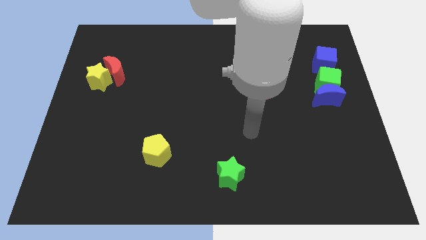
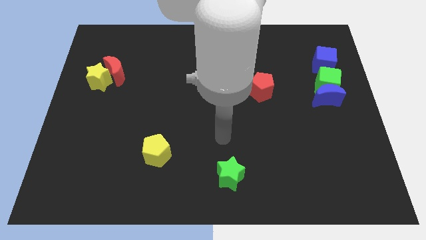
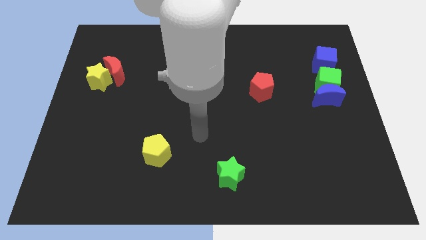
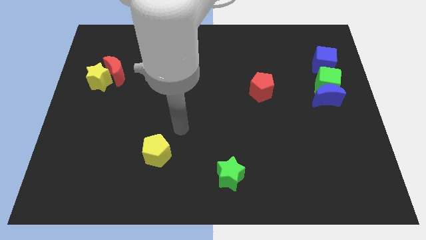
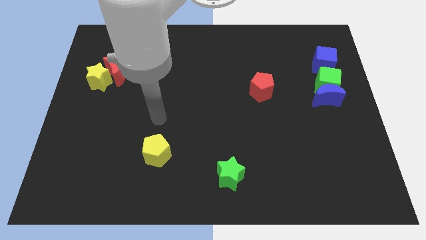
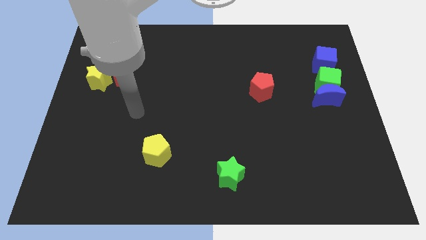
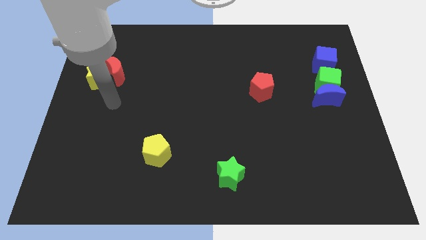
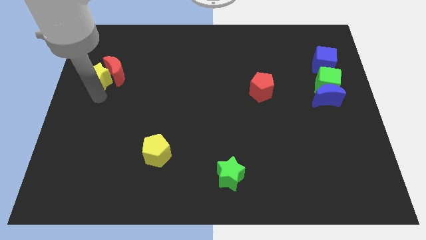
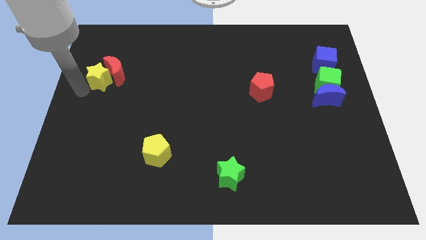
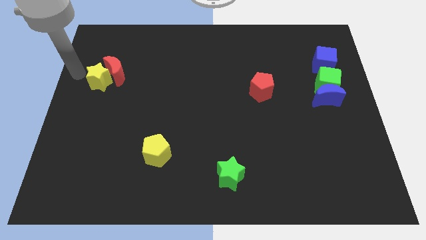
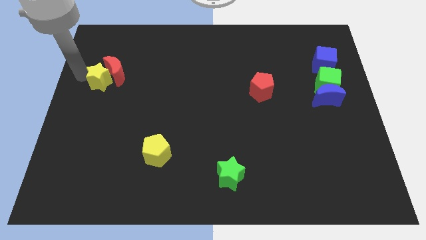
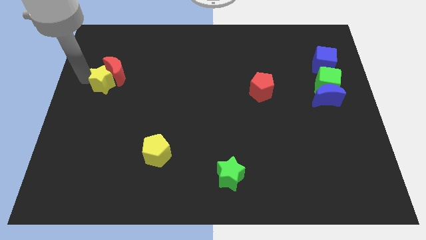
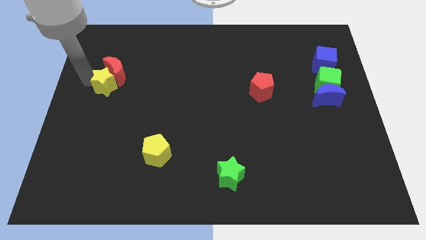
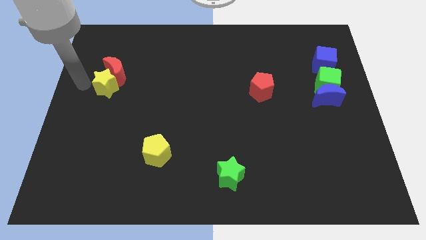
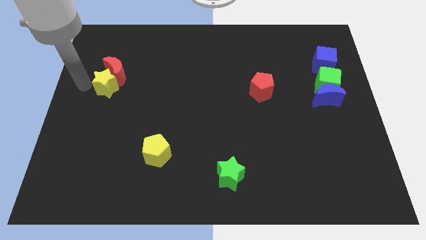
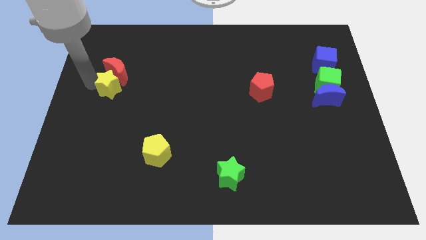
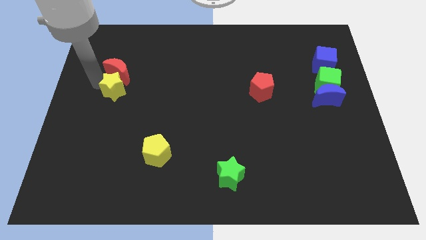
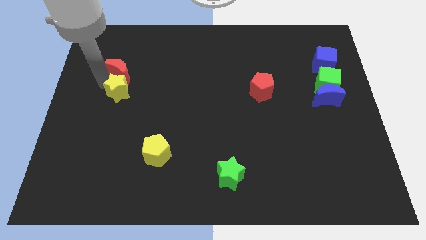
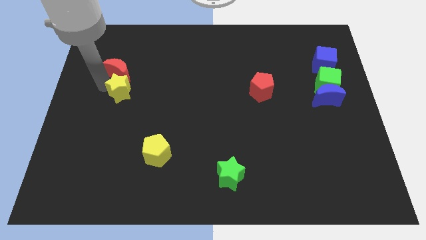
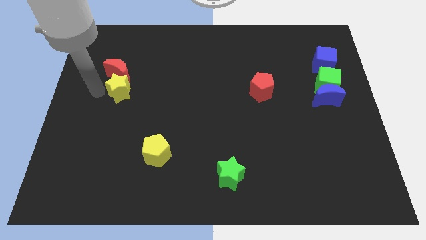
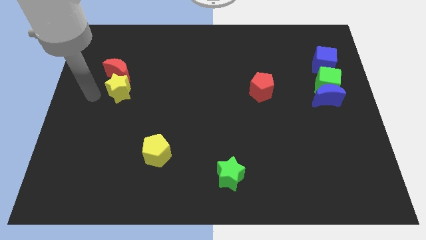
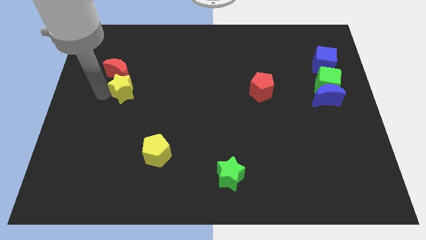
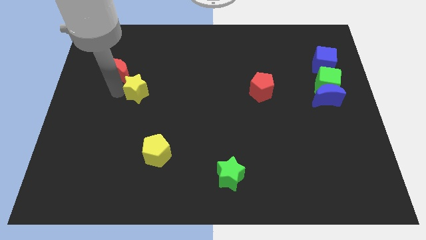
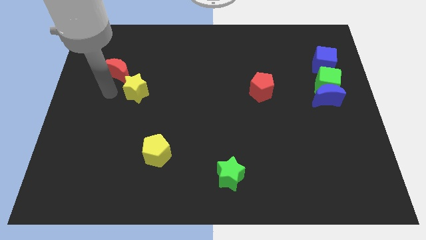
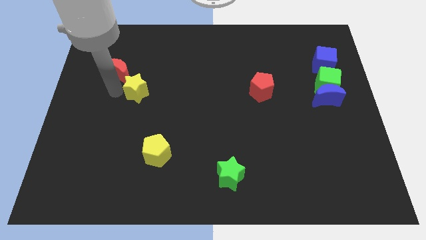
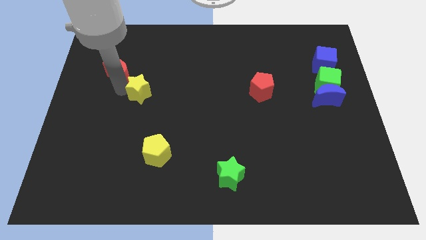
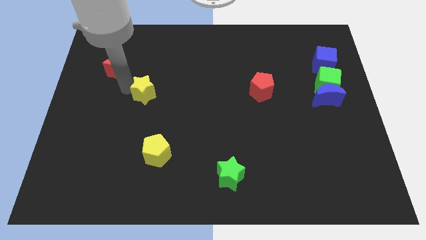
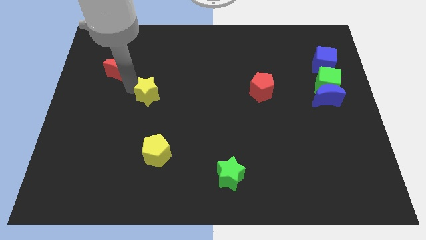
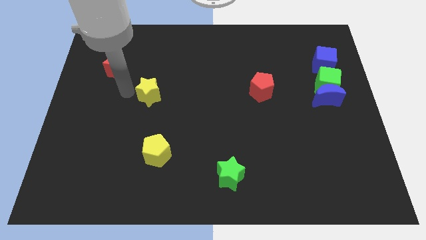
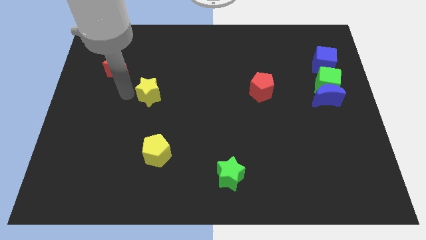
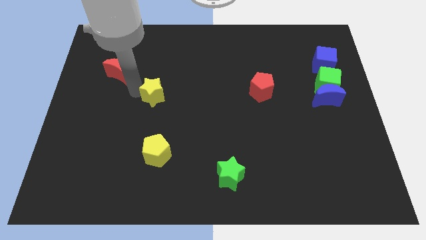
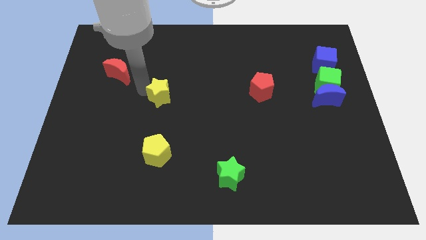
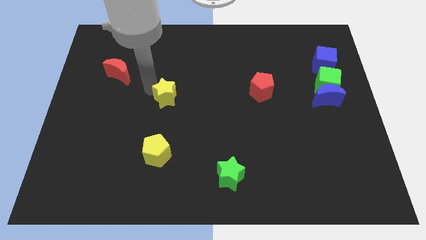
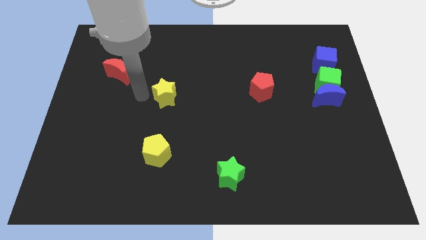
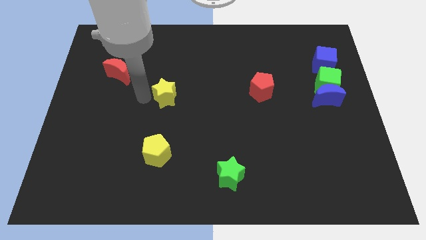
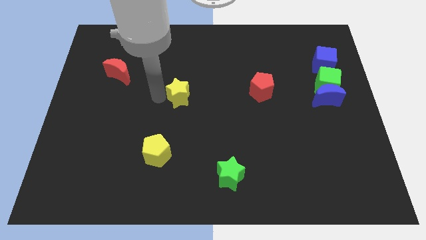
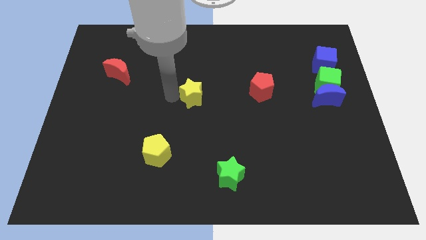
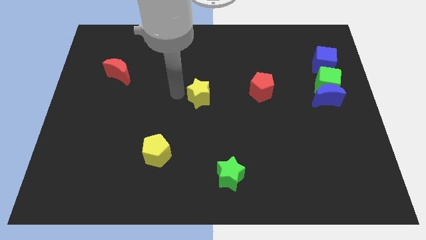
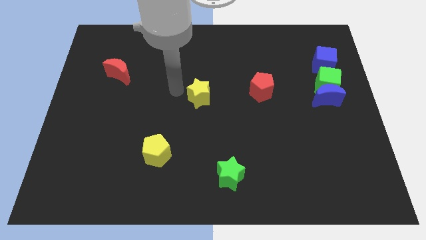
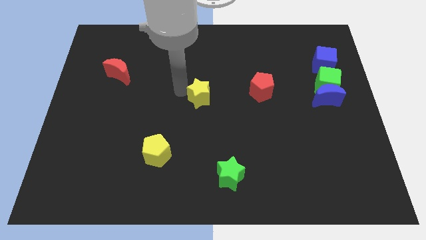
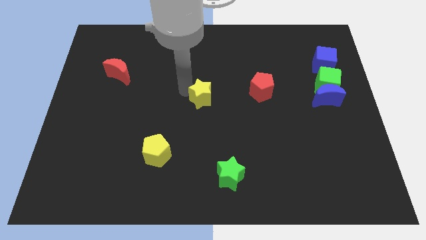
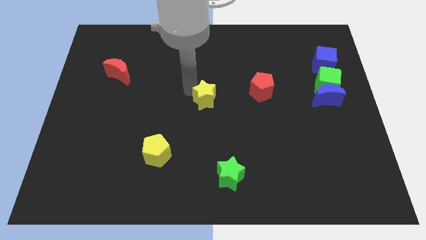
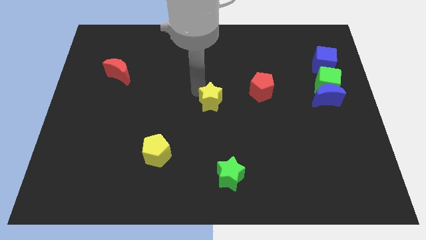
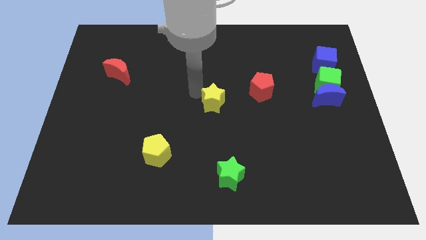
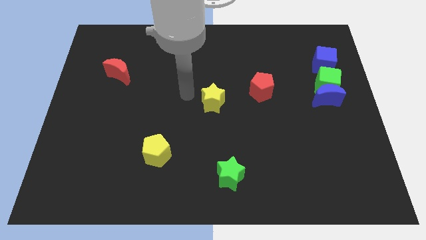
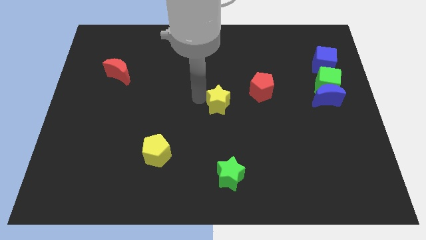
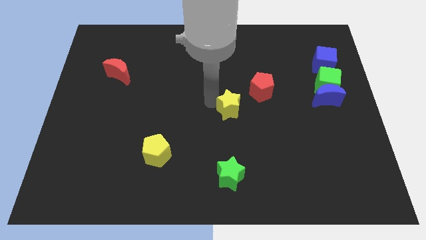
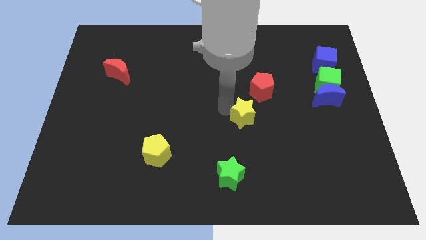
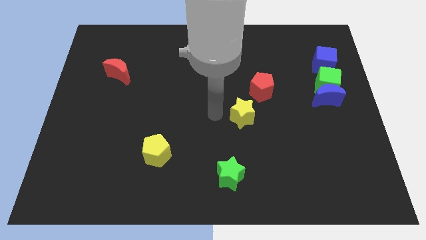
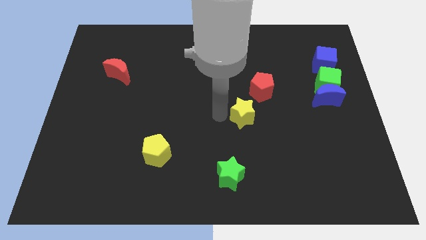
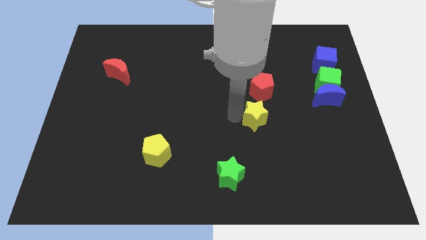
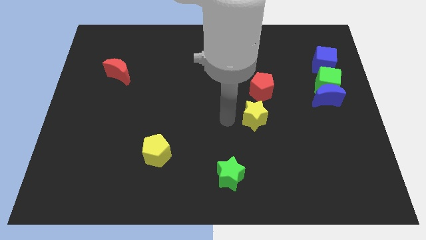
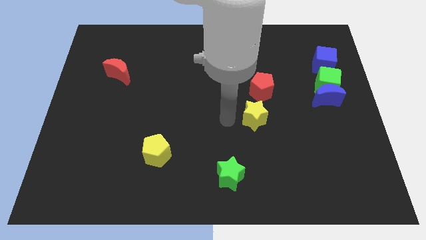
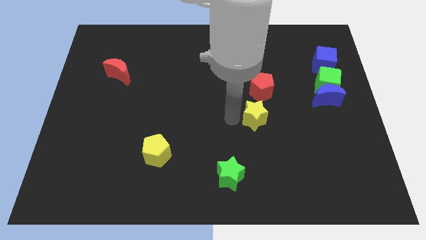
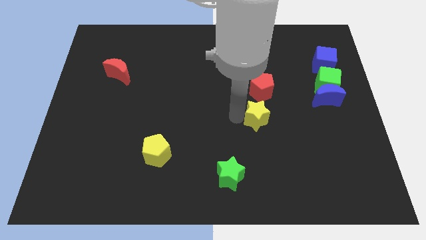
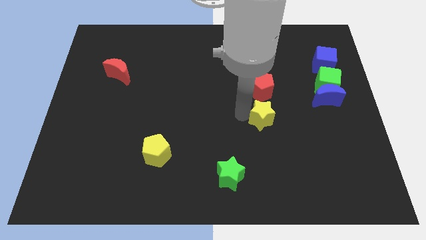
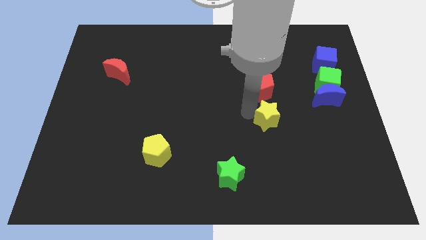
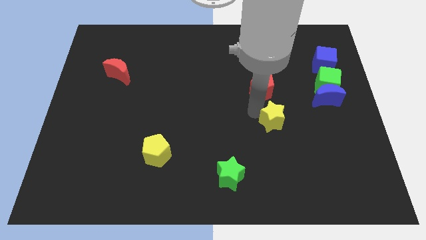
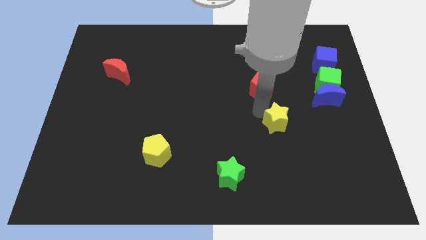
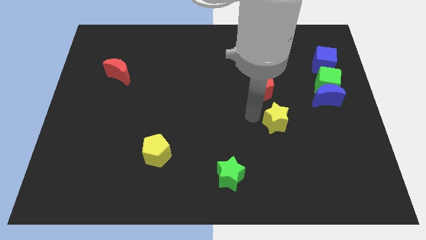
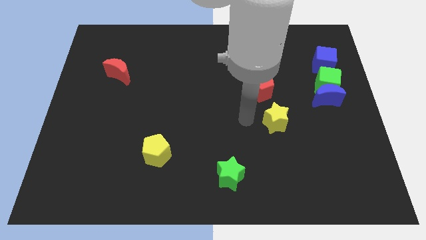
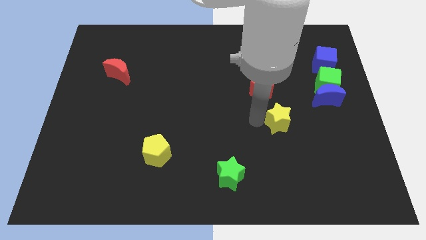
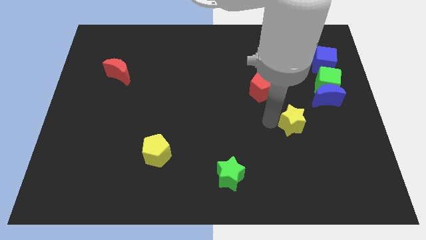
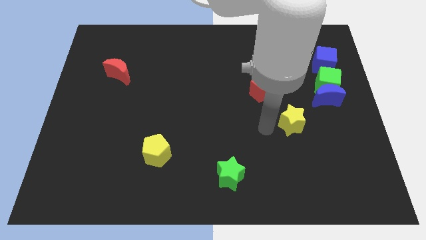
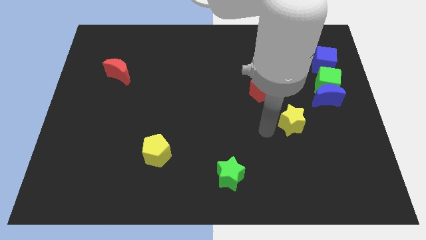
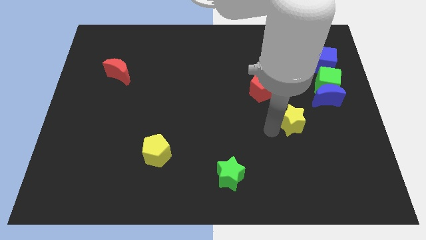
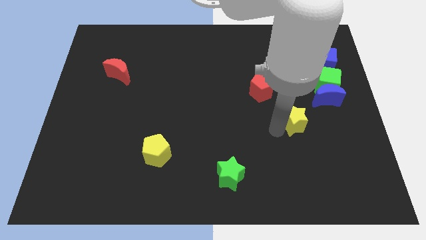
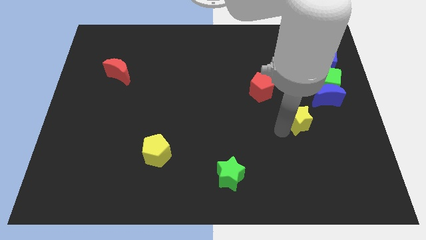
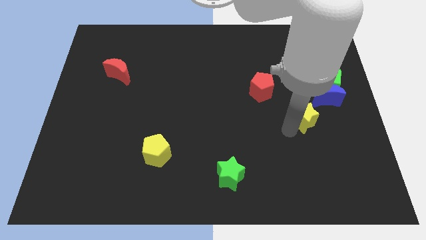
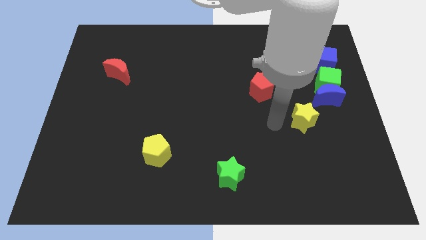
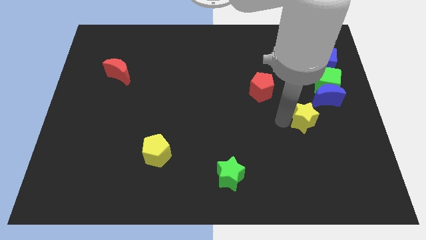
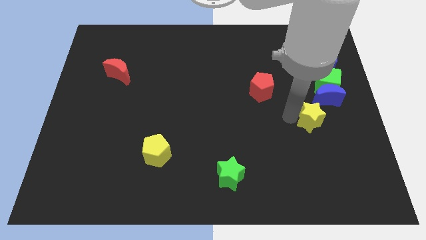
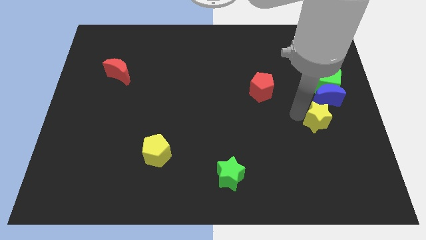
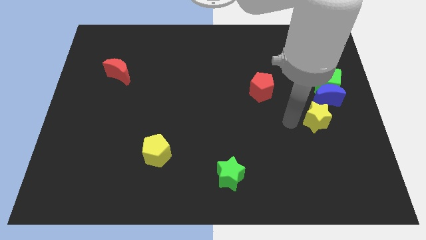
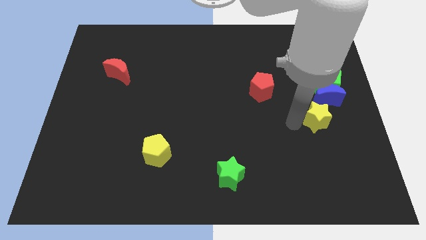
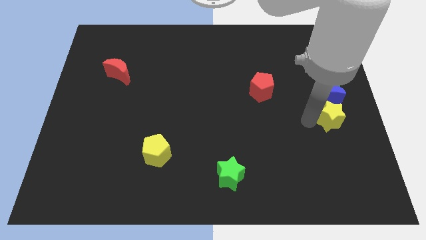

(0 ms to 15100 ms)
put the yellow star to the right side of the board

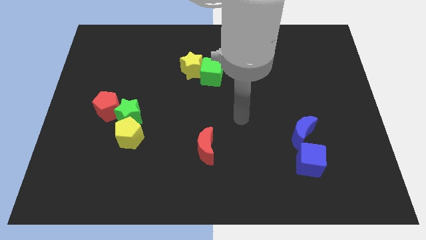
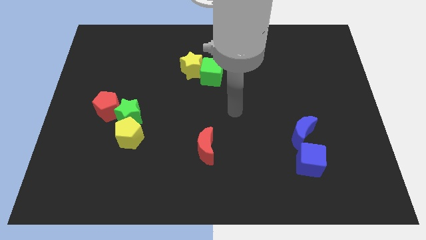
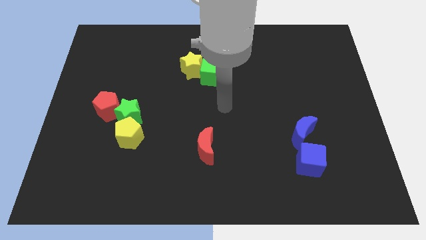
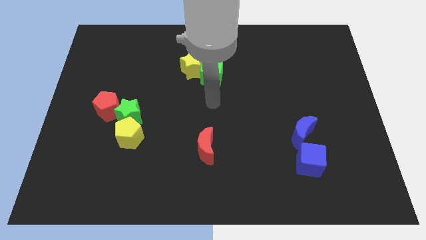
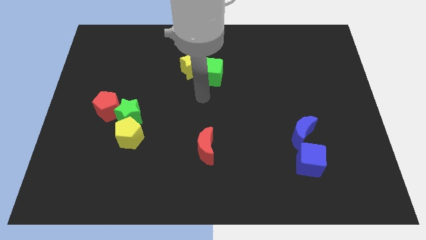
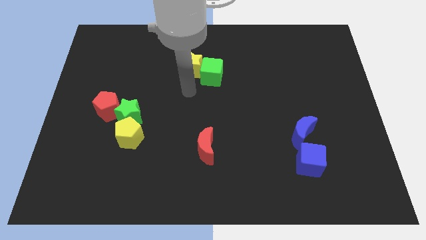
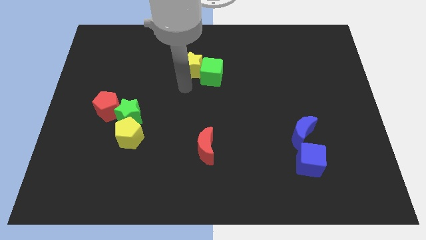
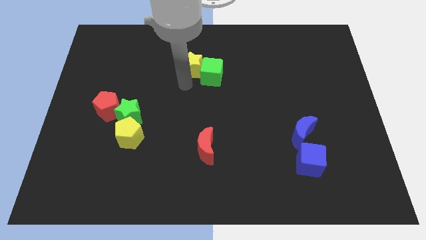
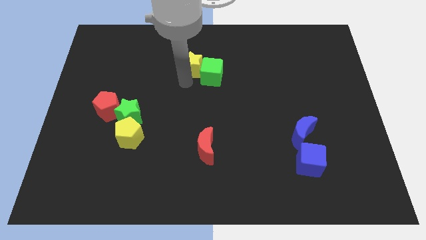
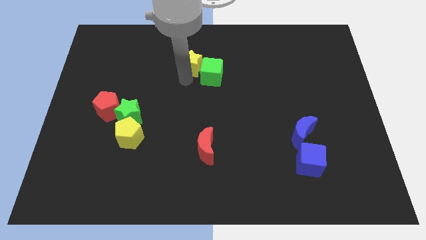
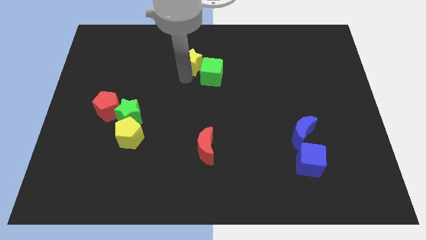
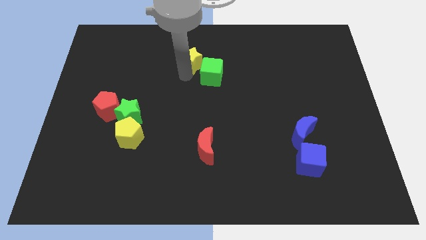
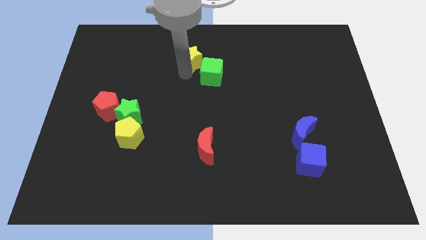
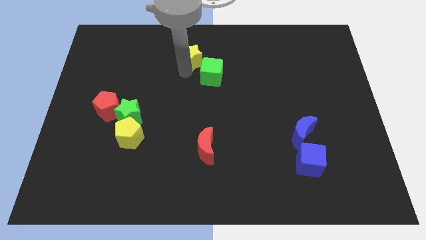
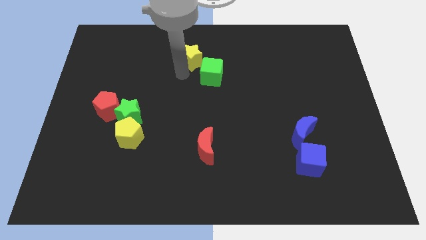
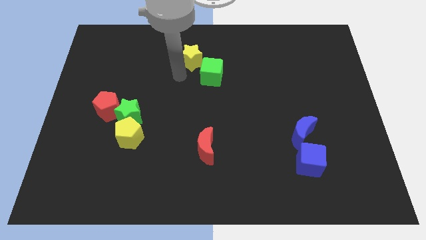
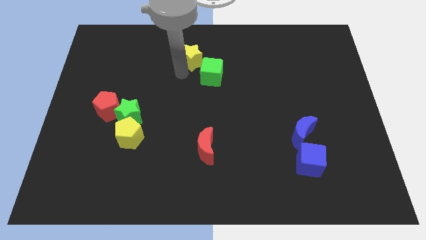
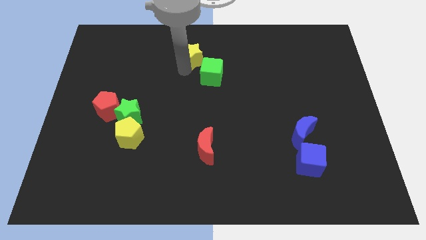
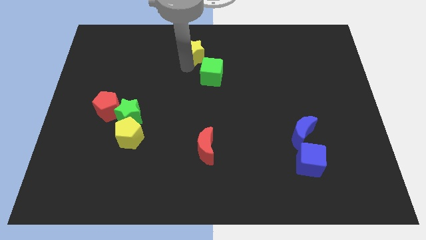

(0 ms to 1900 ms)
slide the yellow star to the top side
